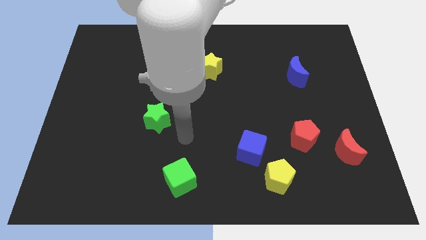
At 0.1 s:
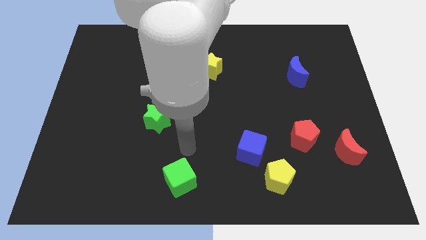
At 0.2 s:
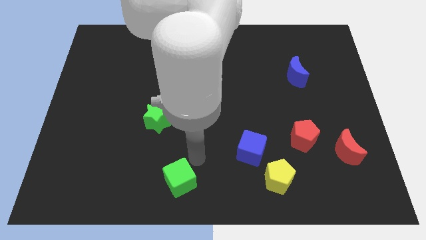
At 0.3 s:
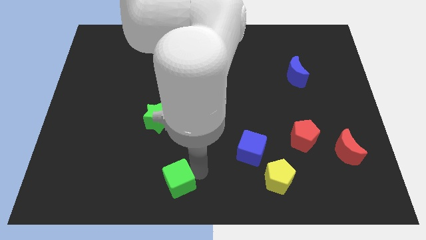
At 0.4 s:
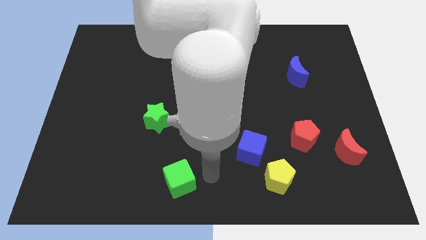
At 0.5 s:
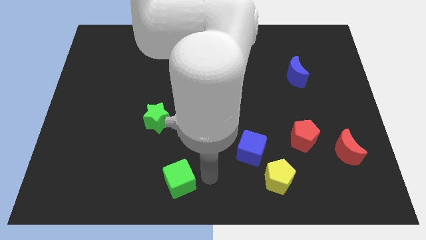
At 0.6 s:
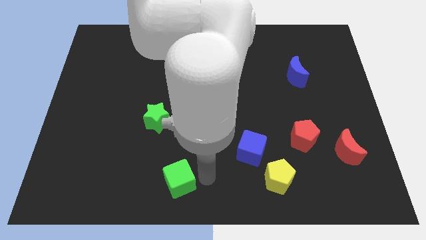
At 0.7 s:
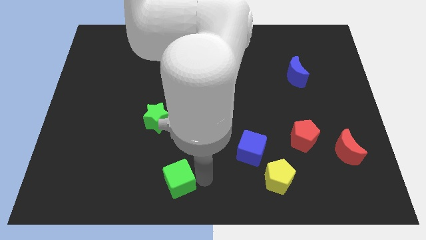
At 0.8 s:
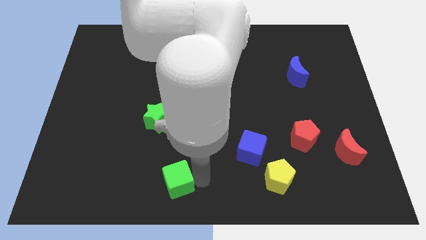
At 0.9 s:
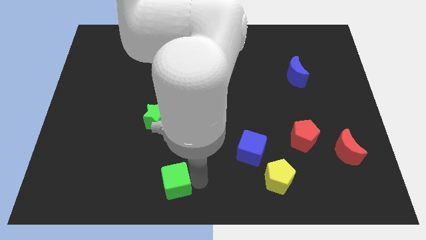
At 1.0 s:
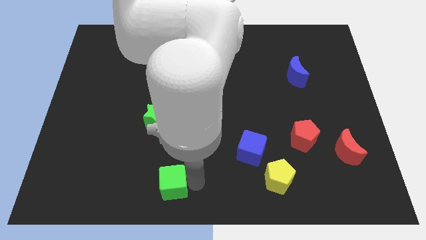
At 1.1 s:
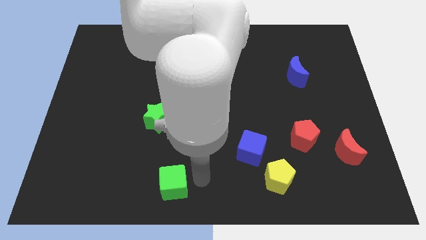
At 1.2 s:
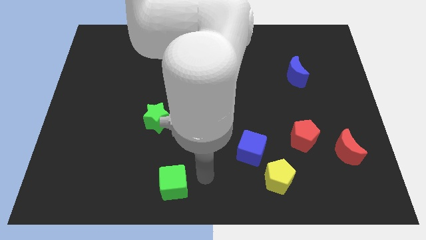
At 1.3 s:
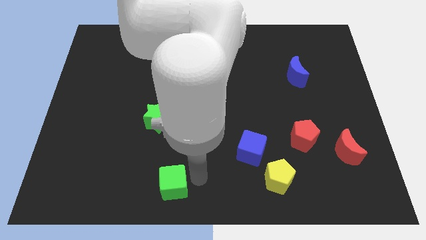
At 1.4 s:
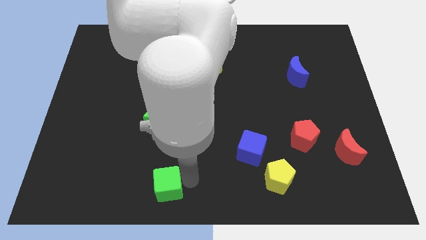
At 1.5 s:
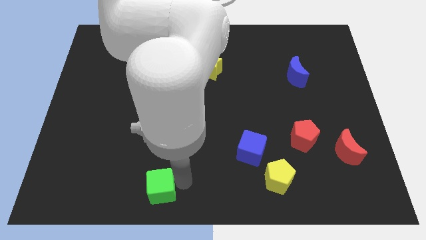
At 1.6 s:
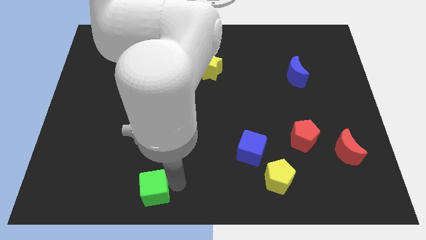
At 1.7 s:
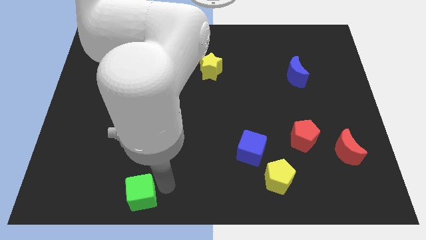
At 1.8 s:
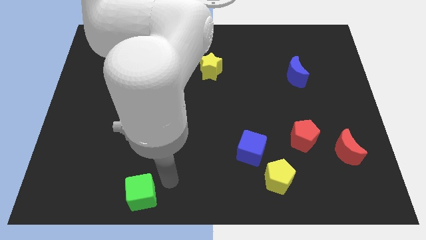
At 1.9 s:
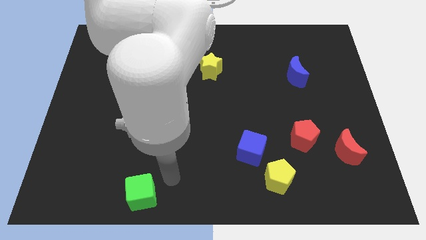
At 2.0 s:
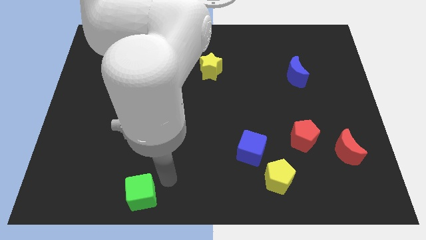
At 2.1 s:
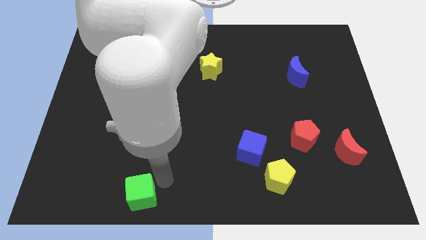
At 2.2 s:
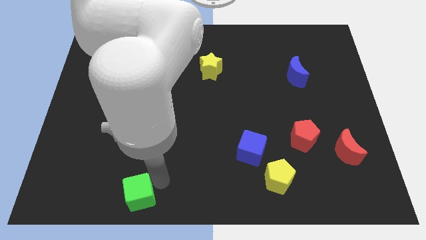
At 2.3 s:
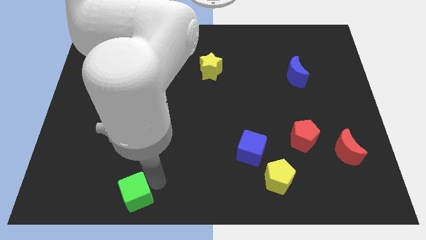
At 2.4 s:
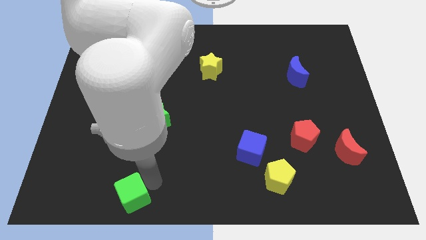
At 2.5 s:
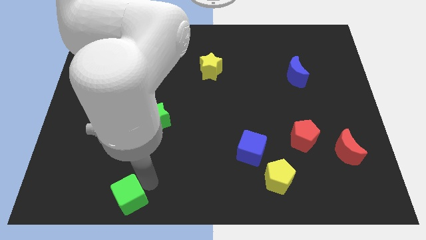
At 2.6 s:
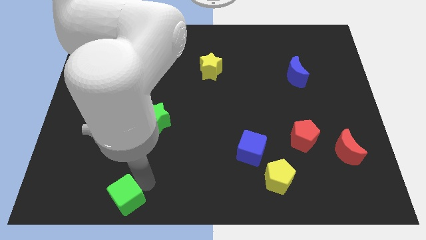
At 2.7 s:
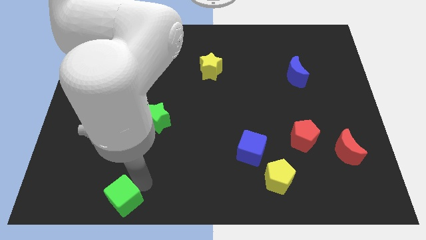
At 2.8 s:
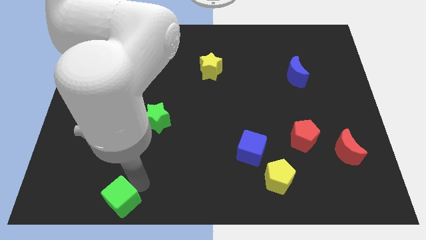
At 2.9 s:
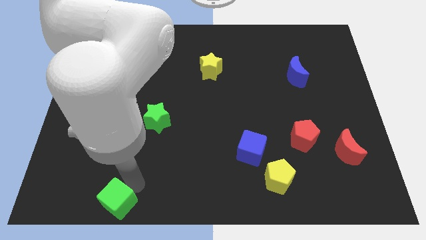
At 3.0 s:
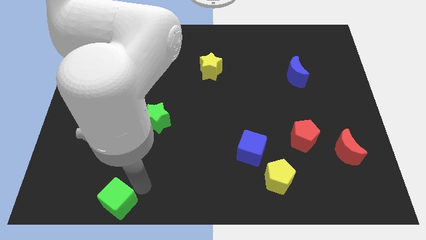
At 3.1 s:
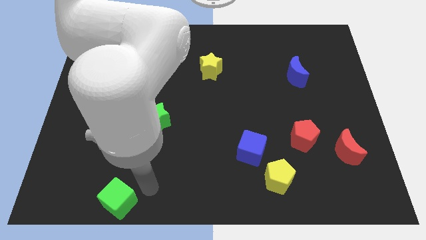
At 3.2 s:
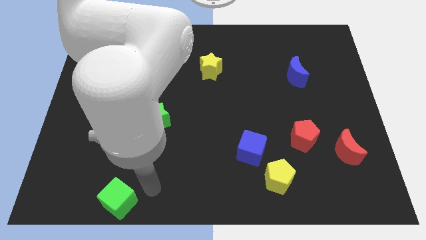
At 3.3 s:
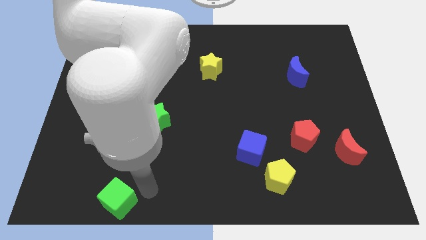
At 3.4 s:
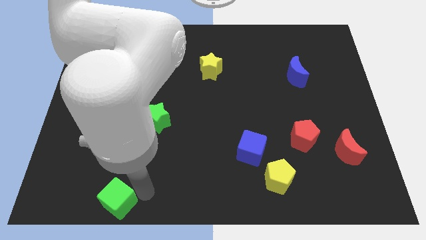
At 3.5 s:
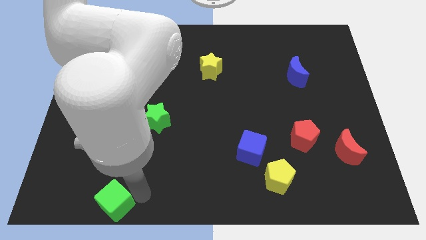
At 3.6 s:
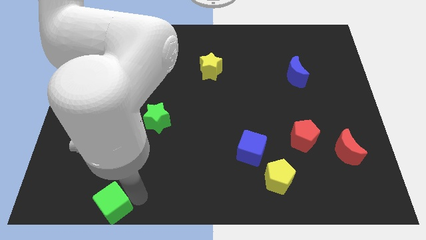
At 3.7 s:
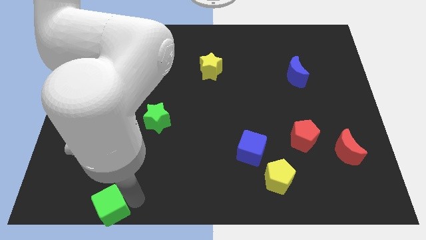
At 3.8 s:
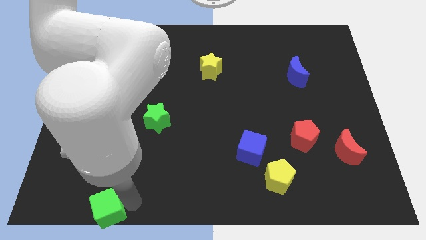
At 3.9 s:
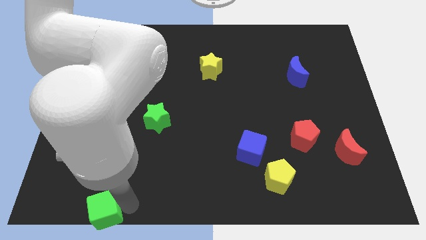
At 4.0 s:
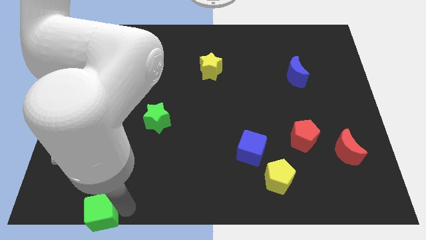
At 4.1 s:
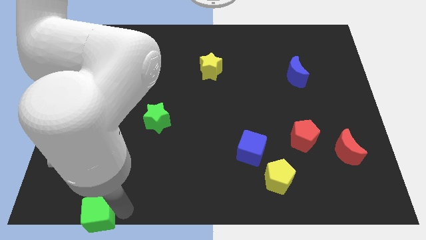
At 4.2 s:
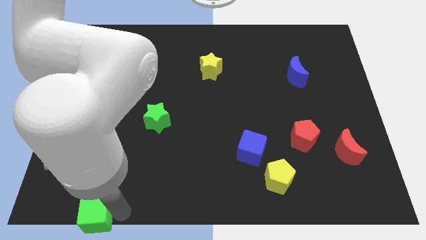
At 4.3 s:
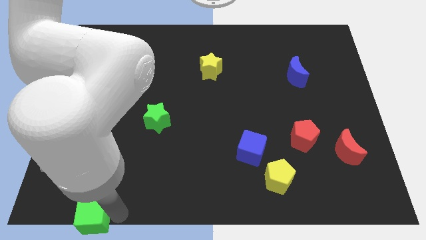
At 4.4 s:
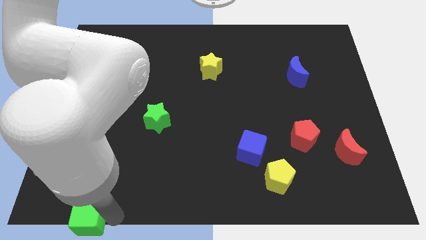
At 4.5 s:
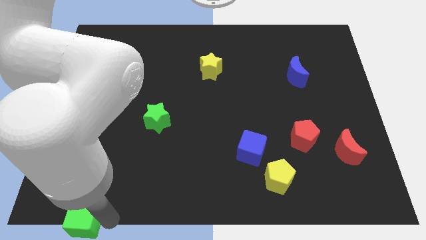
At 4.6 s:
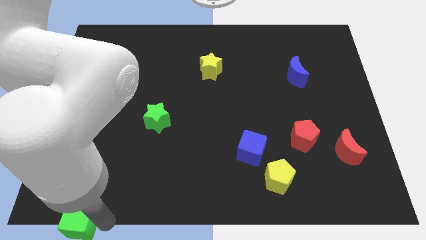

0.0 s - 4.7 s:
move the green cube to the bottom left corner

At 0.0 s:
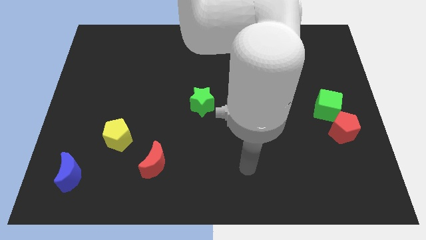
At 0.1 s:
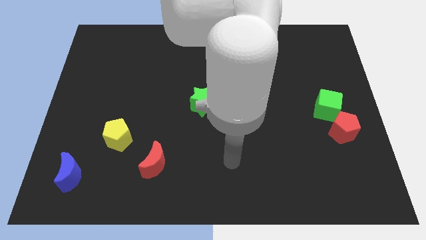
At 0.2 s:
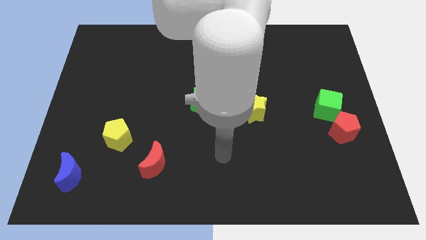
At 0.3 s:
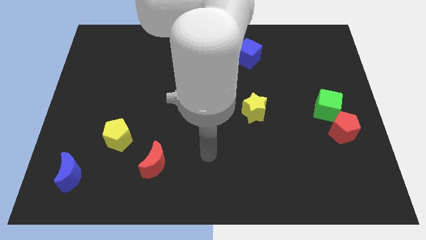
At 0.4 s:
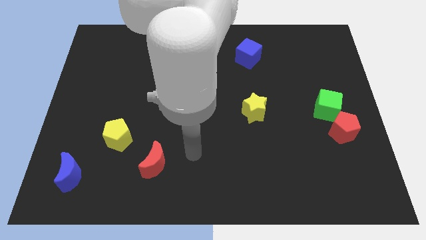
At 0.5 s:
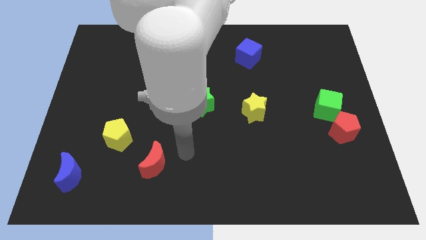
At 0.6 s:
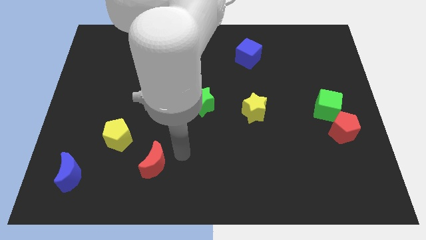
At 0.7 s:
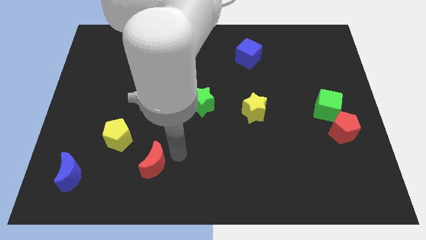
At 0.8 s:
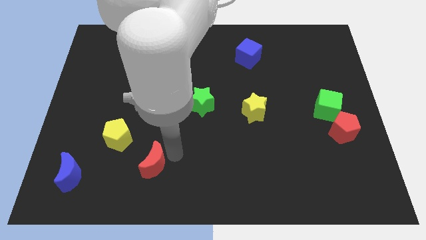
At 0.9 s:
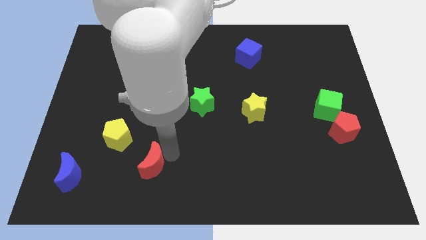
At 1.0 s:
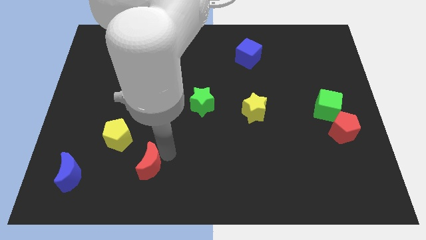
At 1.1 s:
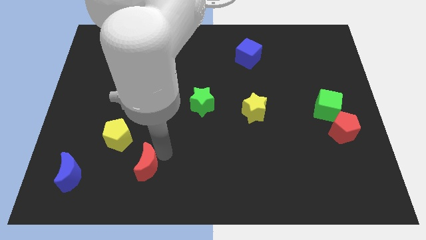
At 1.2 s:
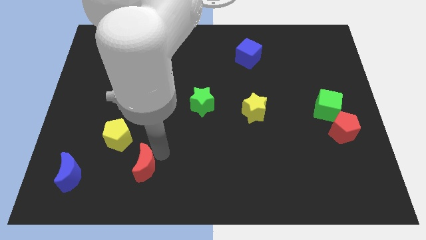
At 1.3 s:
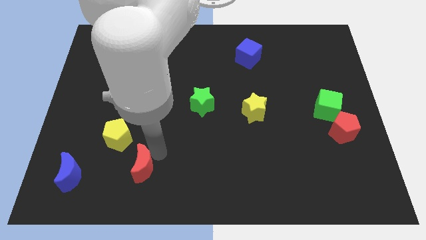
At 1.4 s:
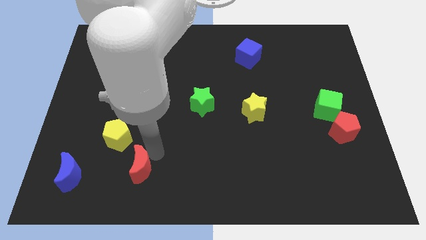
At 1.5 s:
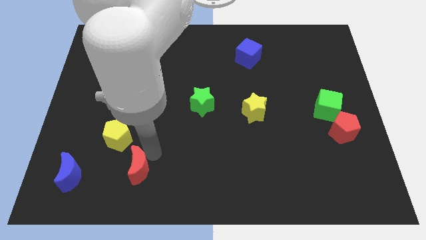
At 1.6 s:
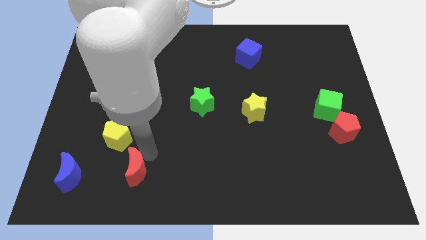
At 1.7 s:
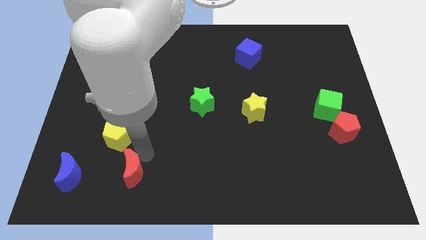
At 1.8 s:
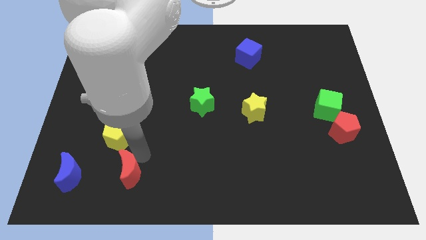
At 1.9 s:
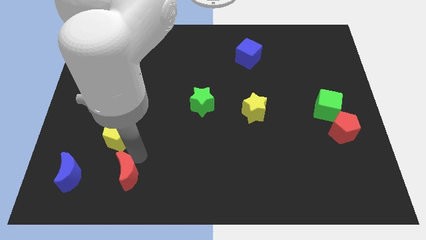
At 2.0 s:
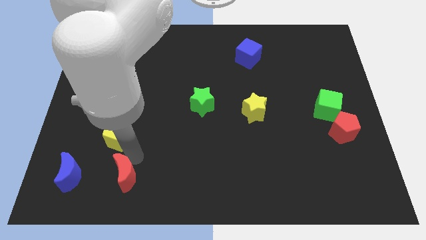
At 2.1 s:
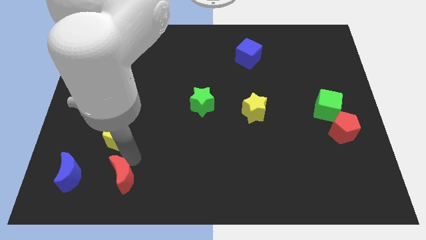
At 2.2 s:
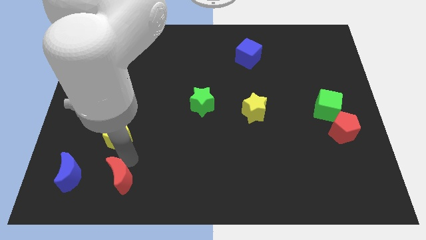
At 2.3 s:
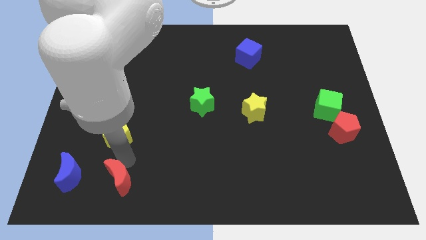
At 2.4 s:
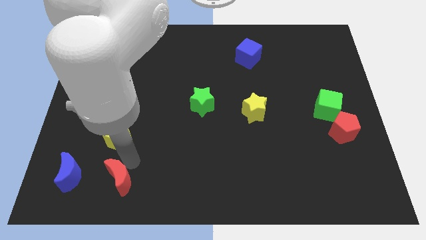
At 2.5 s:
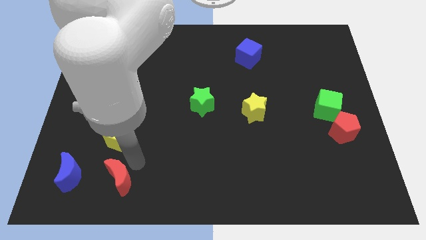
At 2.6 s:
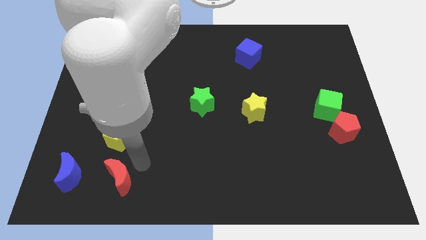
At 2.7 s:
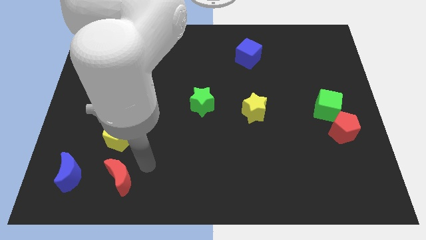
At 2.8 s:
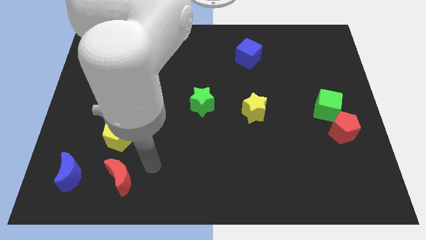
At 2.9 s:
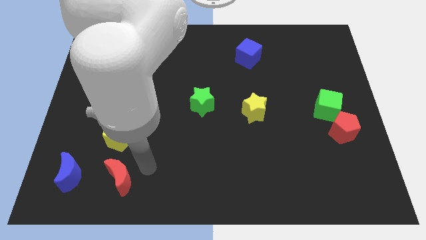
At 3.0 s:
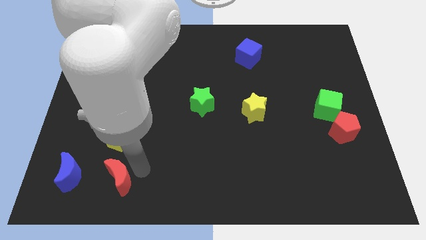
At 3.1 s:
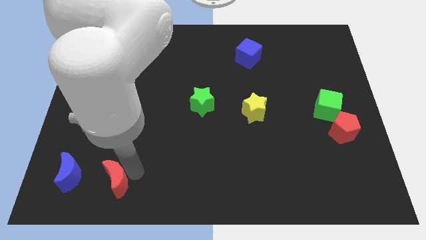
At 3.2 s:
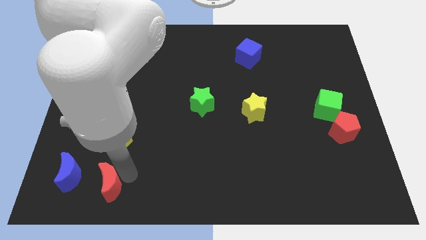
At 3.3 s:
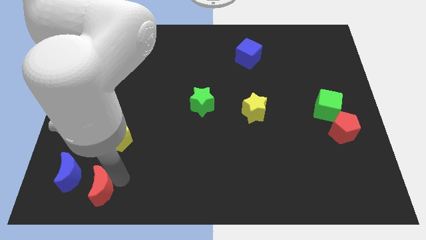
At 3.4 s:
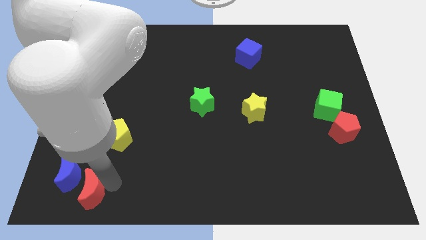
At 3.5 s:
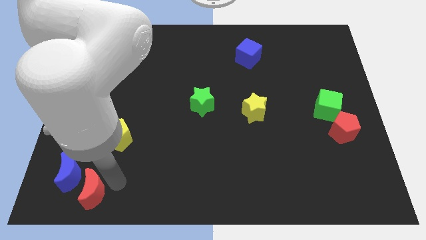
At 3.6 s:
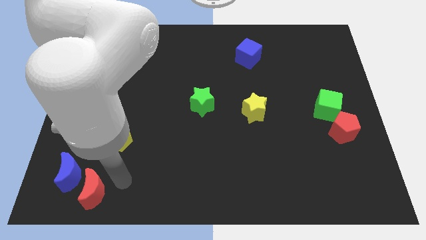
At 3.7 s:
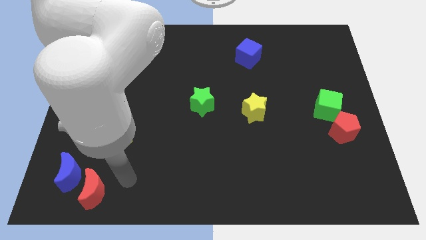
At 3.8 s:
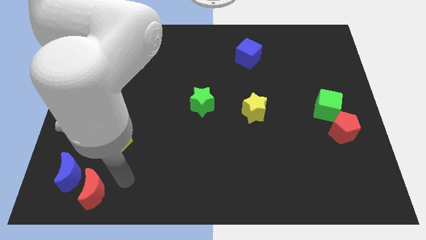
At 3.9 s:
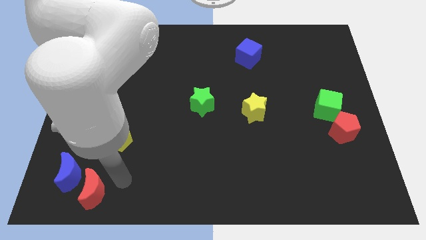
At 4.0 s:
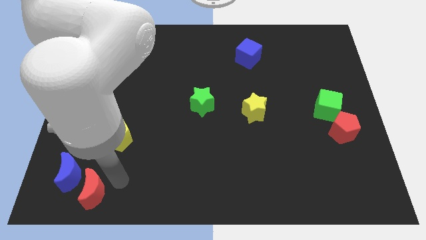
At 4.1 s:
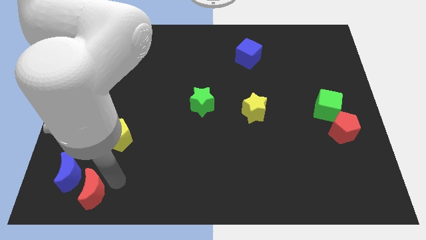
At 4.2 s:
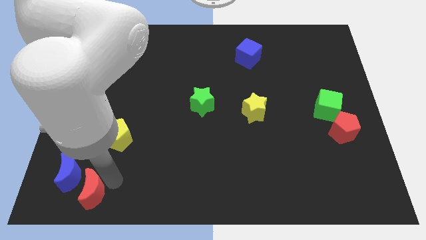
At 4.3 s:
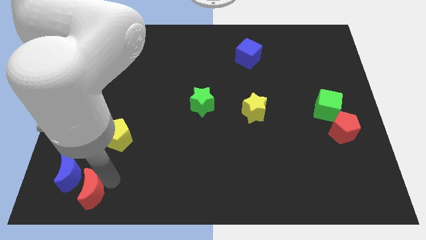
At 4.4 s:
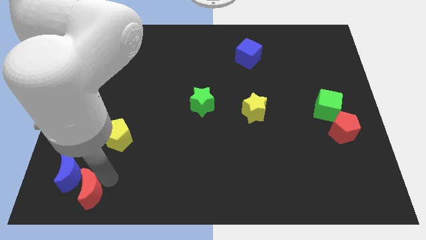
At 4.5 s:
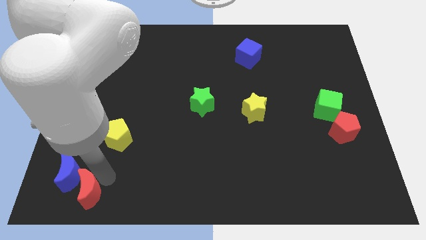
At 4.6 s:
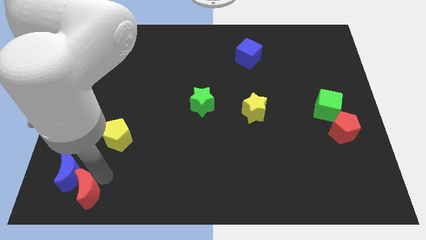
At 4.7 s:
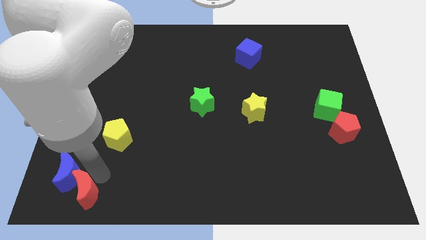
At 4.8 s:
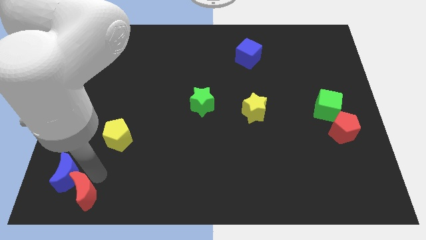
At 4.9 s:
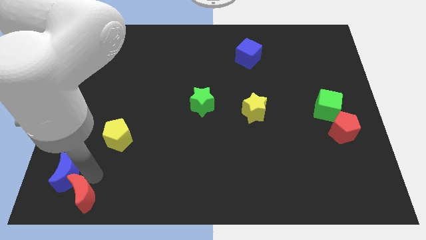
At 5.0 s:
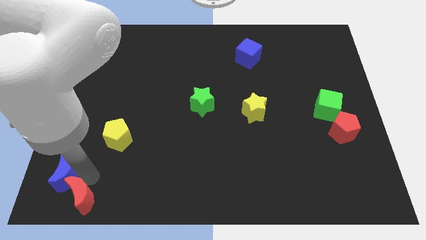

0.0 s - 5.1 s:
push the red moon to the bottom left of the board
